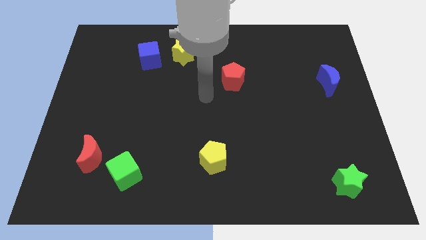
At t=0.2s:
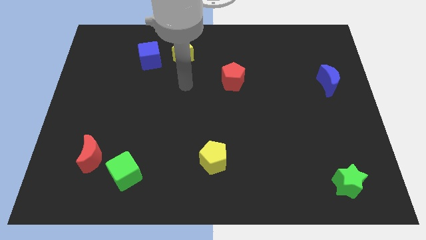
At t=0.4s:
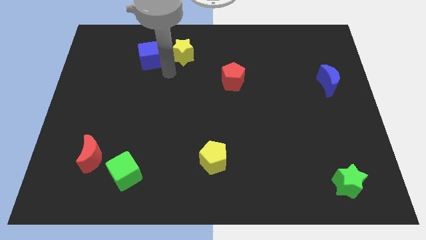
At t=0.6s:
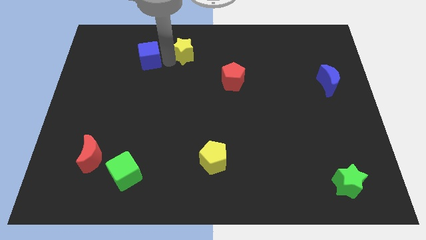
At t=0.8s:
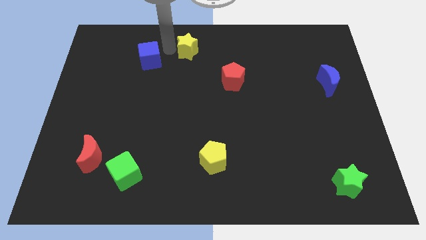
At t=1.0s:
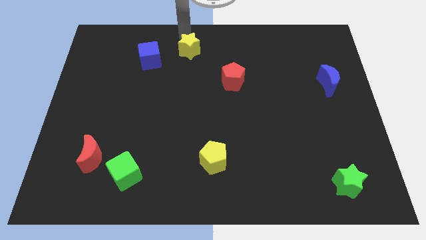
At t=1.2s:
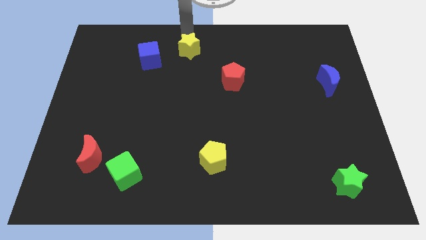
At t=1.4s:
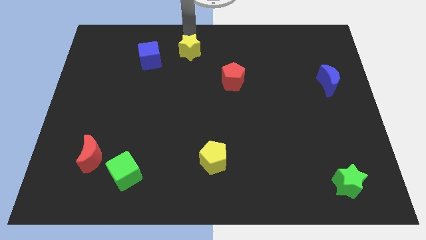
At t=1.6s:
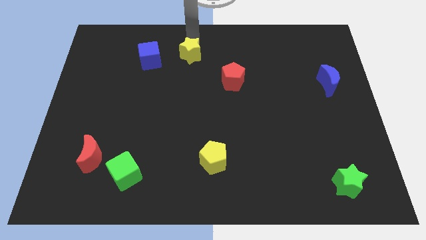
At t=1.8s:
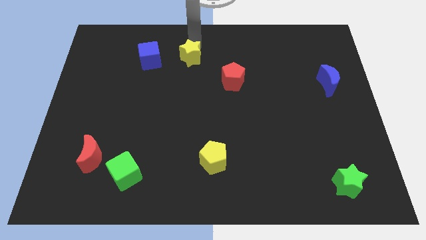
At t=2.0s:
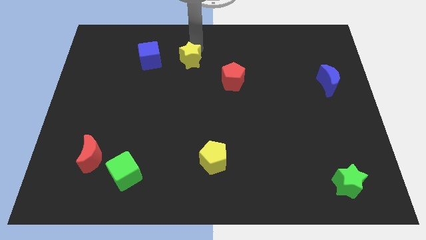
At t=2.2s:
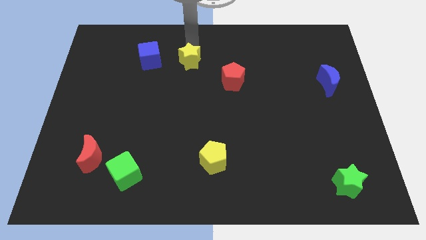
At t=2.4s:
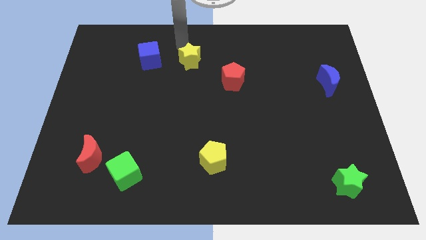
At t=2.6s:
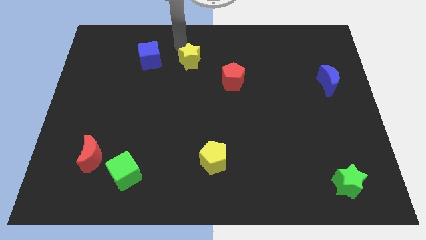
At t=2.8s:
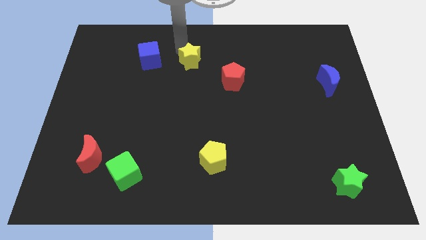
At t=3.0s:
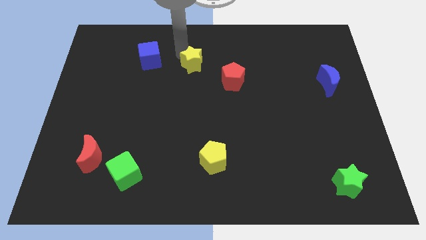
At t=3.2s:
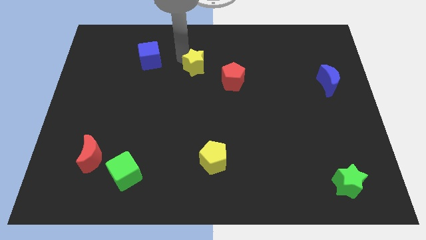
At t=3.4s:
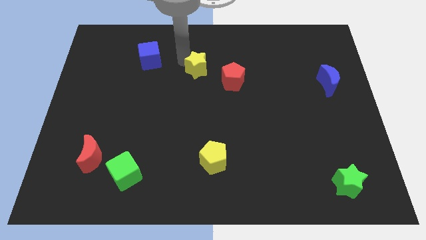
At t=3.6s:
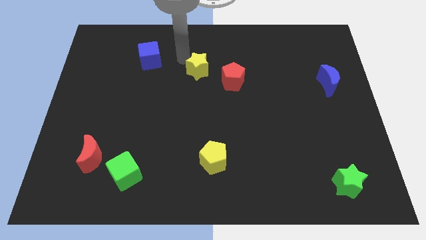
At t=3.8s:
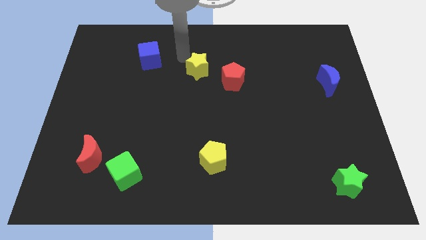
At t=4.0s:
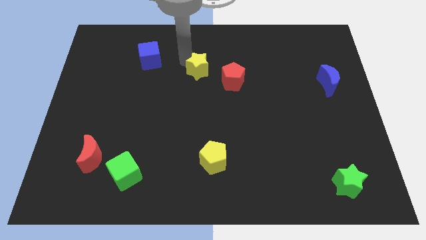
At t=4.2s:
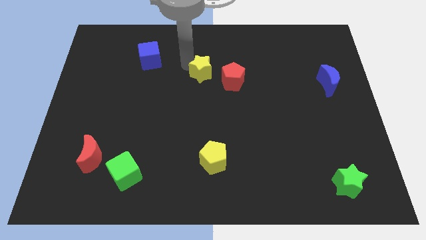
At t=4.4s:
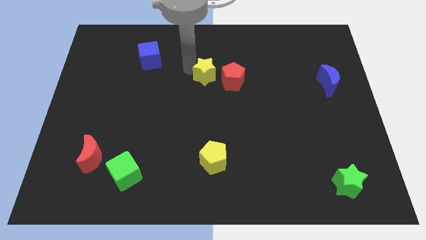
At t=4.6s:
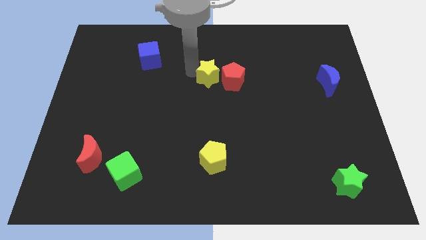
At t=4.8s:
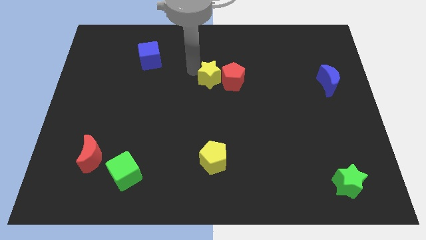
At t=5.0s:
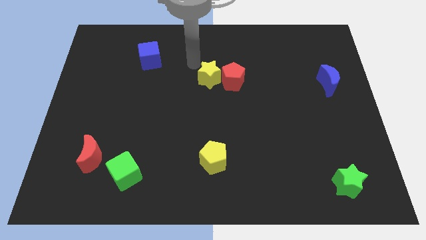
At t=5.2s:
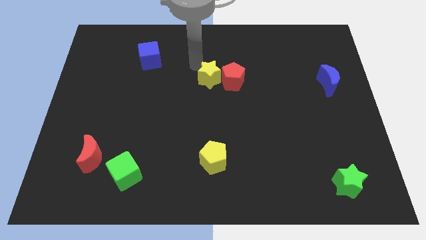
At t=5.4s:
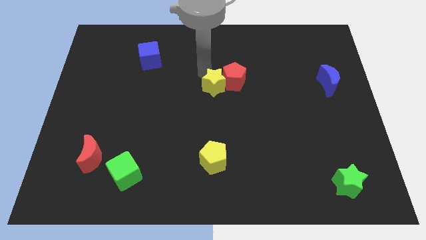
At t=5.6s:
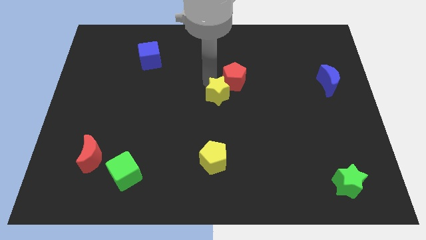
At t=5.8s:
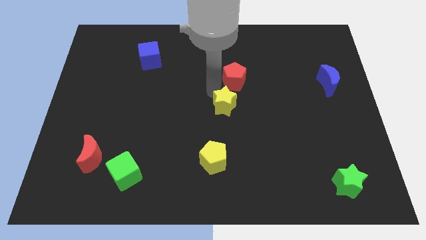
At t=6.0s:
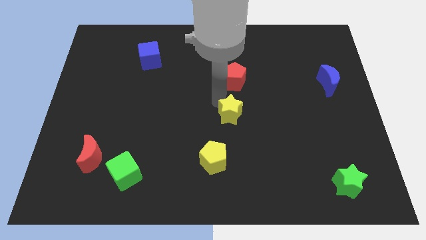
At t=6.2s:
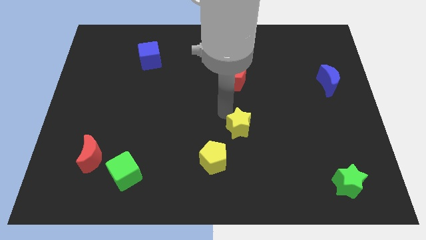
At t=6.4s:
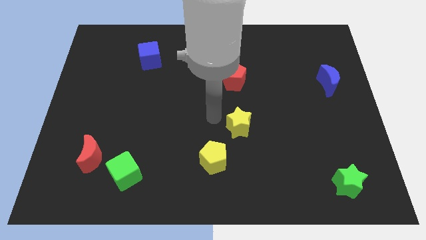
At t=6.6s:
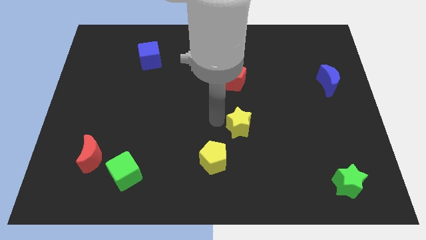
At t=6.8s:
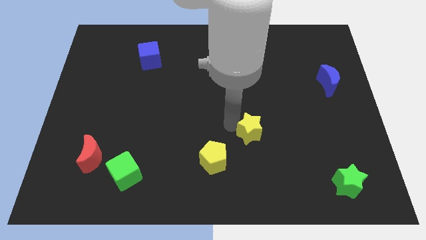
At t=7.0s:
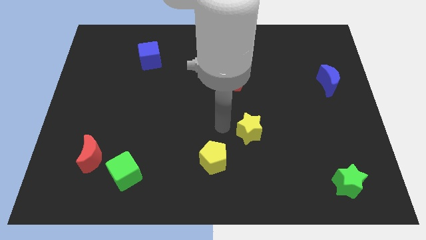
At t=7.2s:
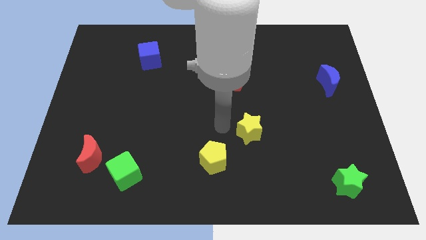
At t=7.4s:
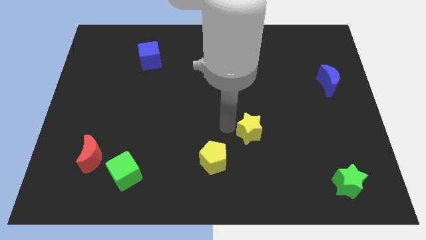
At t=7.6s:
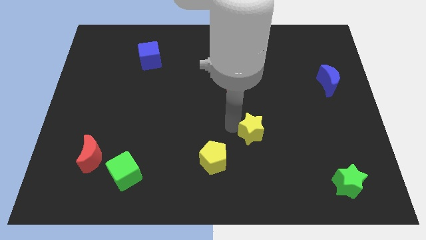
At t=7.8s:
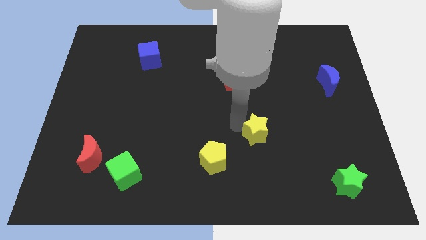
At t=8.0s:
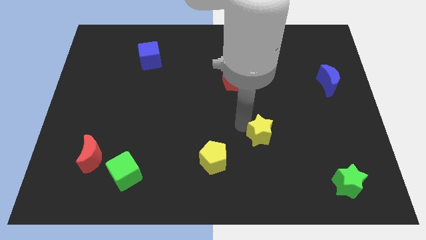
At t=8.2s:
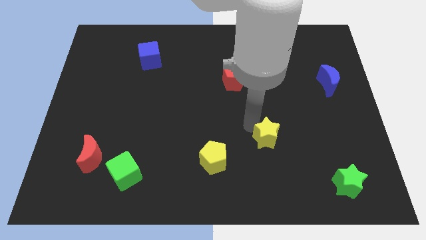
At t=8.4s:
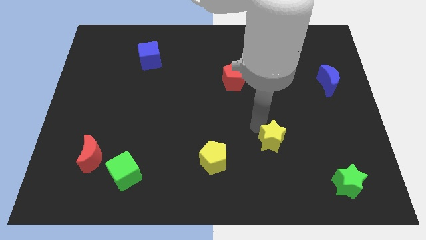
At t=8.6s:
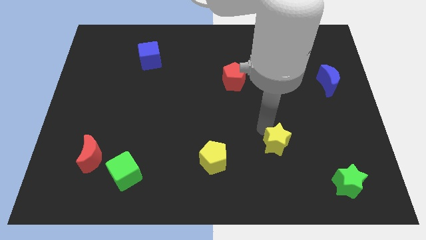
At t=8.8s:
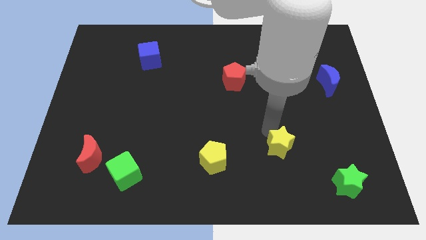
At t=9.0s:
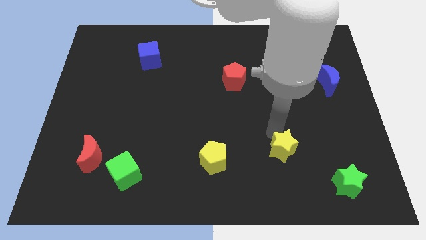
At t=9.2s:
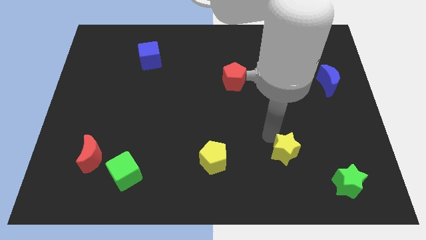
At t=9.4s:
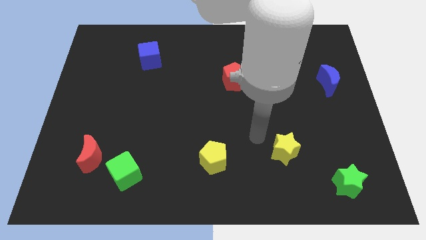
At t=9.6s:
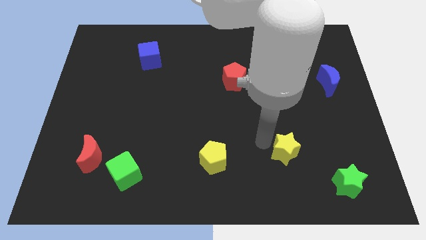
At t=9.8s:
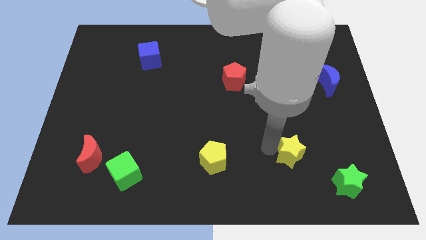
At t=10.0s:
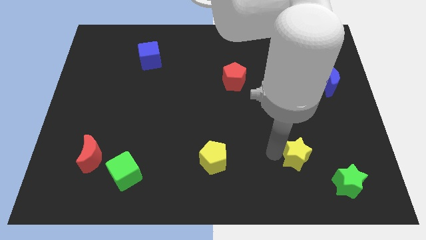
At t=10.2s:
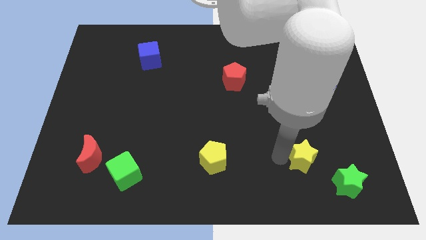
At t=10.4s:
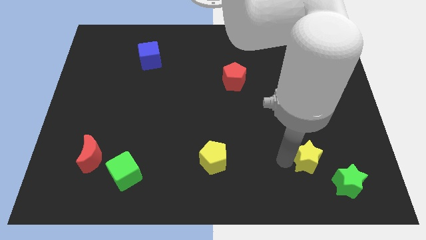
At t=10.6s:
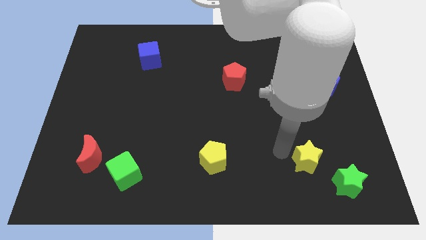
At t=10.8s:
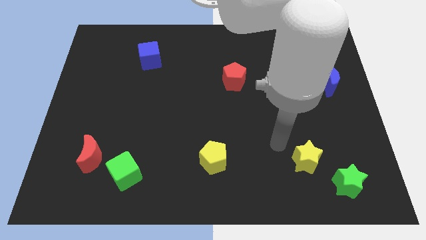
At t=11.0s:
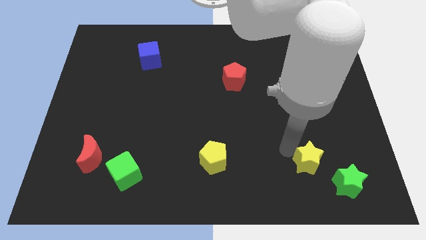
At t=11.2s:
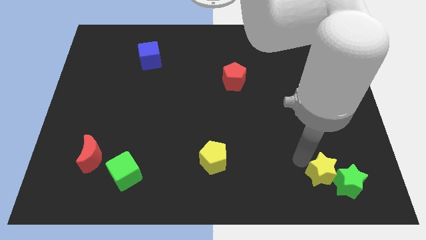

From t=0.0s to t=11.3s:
slide the yellow star next to the green star

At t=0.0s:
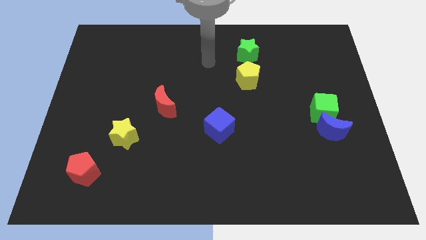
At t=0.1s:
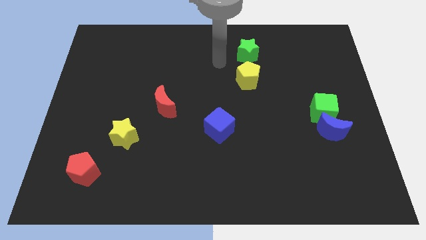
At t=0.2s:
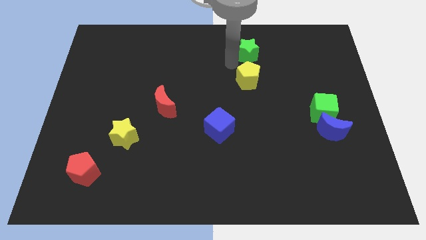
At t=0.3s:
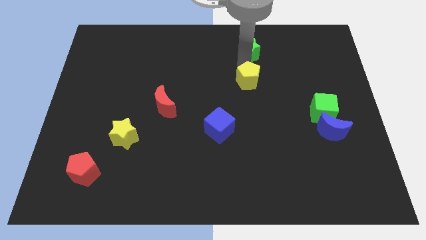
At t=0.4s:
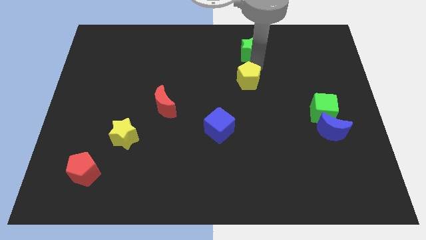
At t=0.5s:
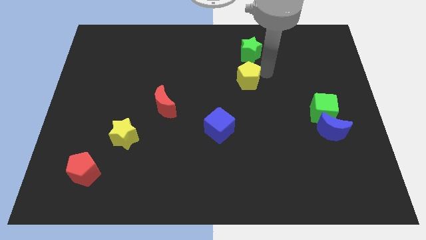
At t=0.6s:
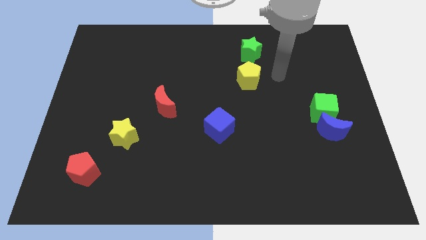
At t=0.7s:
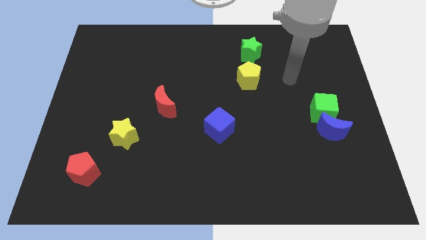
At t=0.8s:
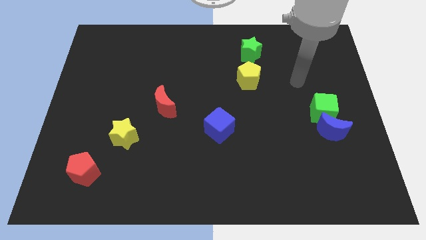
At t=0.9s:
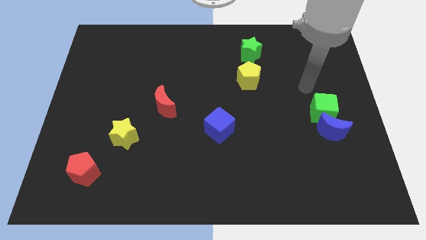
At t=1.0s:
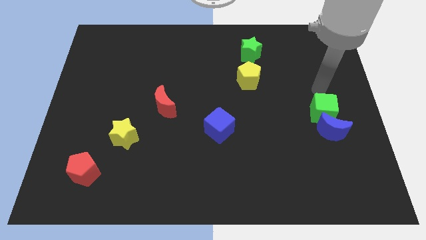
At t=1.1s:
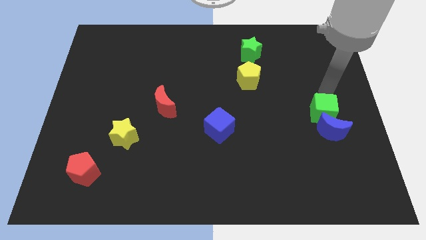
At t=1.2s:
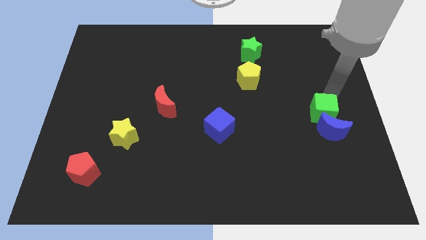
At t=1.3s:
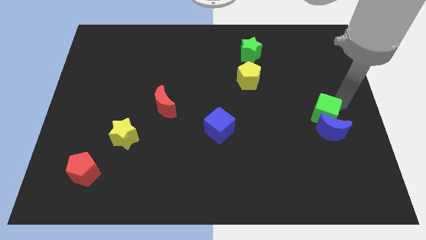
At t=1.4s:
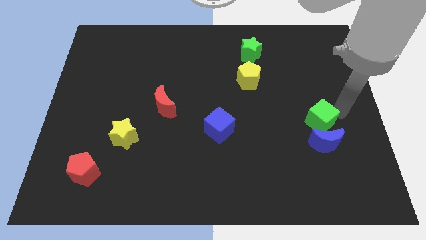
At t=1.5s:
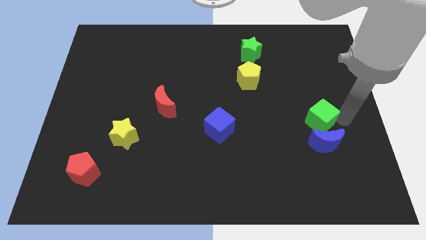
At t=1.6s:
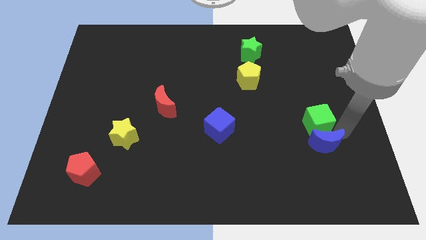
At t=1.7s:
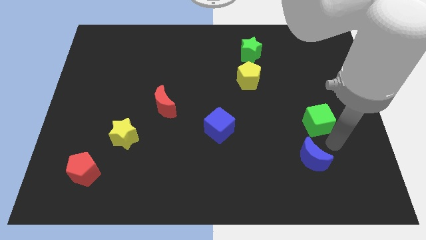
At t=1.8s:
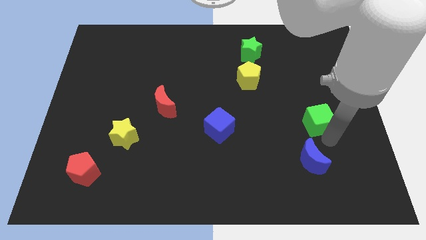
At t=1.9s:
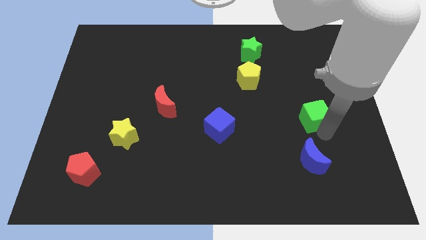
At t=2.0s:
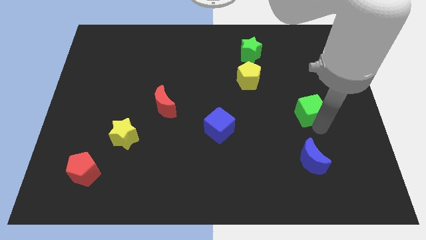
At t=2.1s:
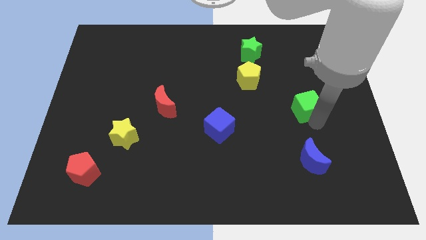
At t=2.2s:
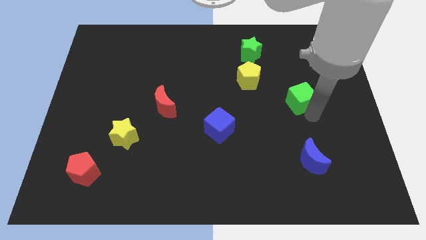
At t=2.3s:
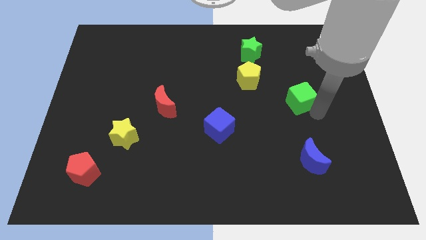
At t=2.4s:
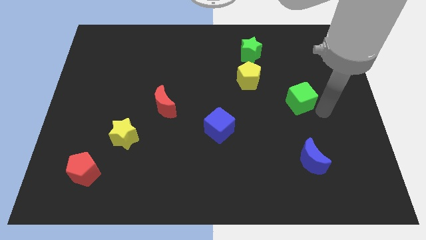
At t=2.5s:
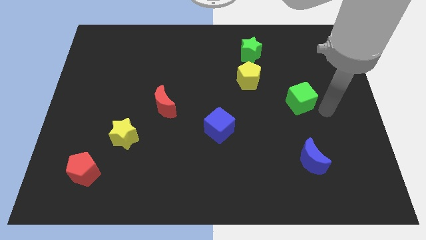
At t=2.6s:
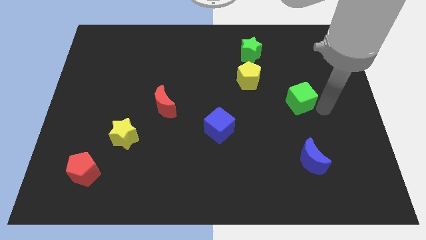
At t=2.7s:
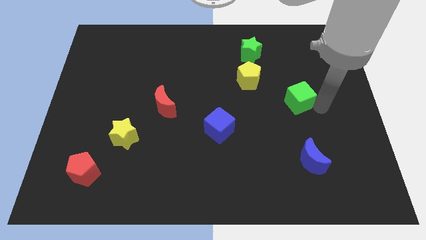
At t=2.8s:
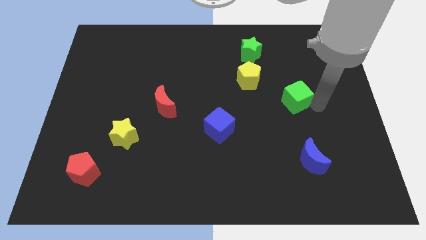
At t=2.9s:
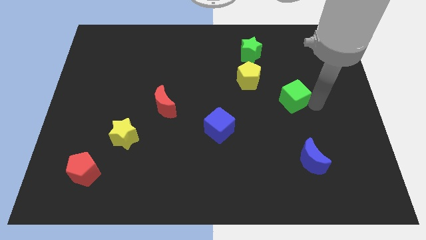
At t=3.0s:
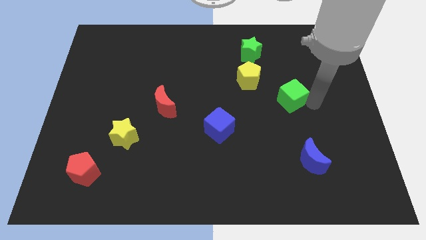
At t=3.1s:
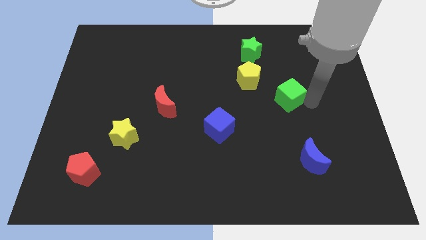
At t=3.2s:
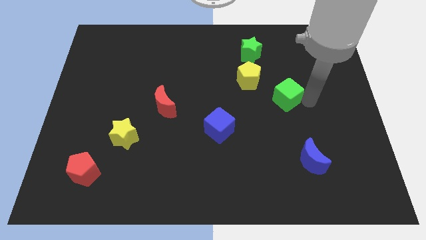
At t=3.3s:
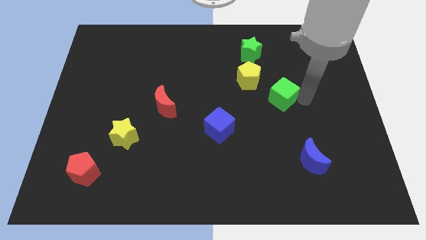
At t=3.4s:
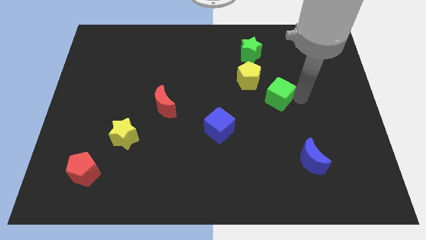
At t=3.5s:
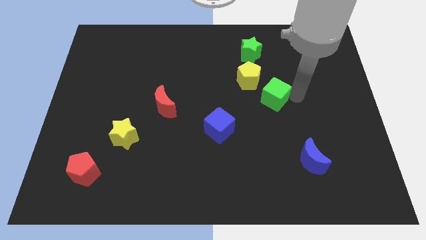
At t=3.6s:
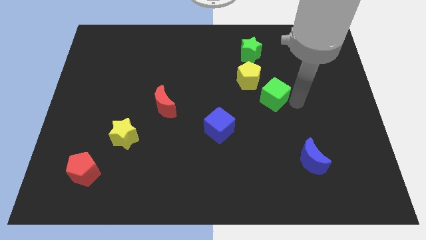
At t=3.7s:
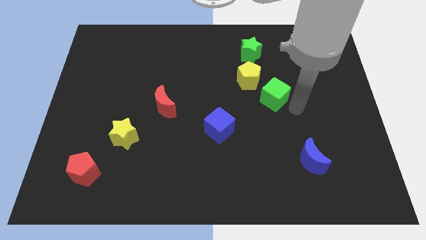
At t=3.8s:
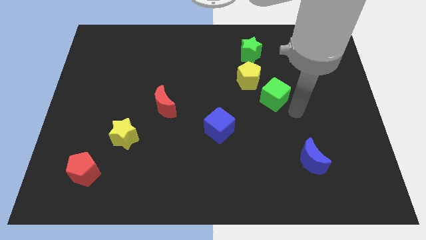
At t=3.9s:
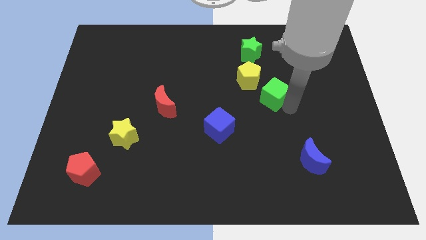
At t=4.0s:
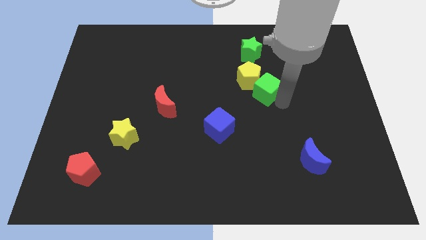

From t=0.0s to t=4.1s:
slide the green cube towards the yellow pentagon
